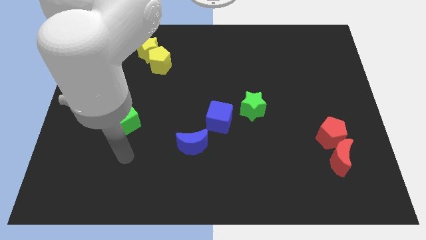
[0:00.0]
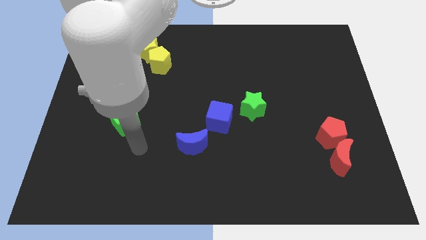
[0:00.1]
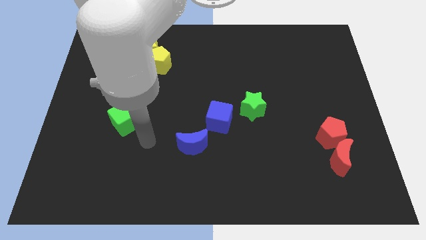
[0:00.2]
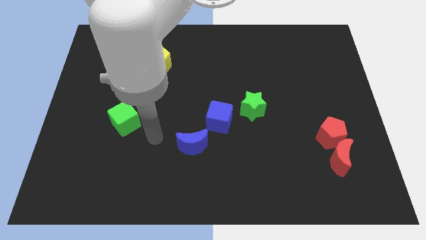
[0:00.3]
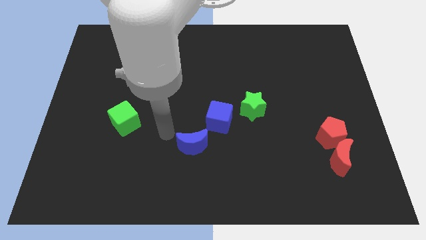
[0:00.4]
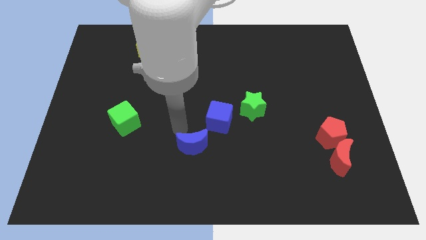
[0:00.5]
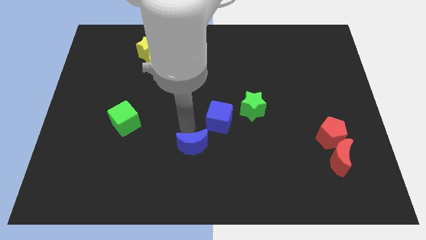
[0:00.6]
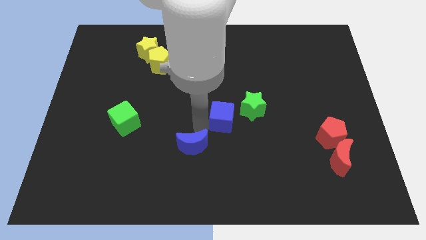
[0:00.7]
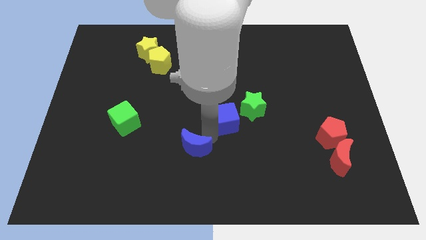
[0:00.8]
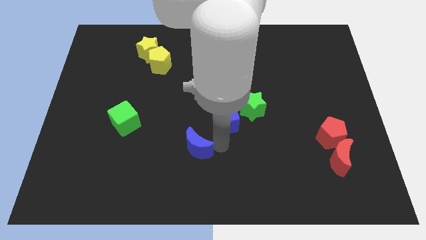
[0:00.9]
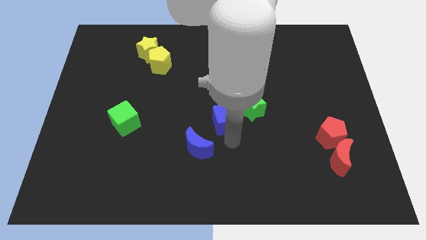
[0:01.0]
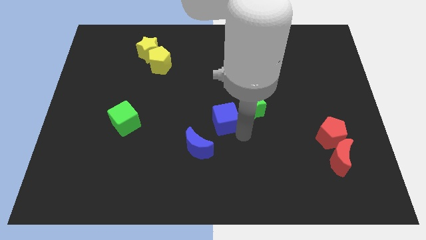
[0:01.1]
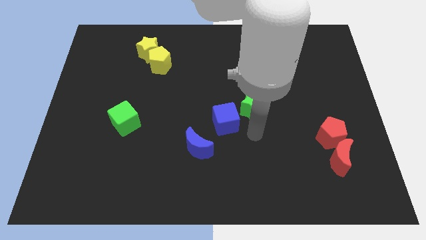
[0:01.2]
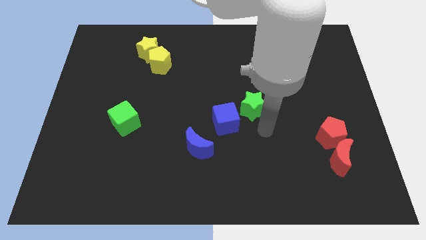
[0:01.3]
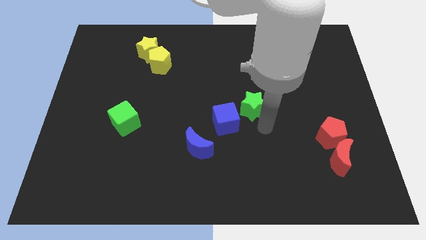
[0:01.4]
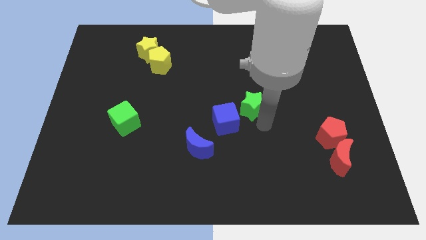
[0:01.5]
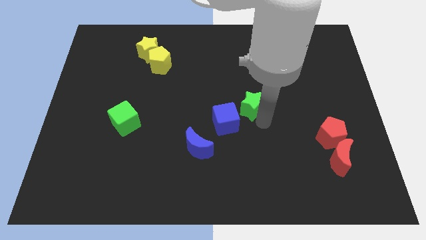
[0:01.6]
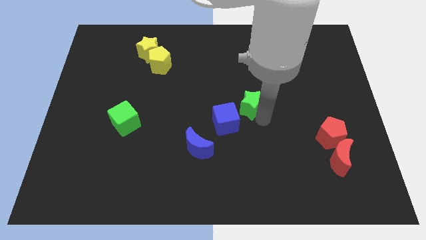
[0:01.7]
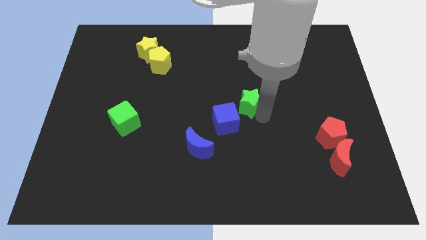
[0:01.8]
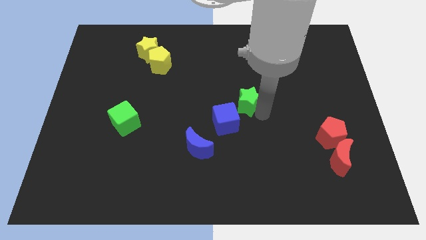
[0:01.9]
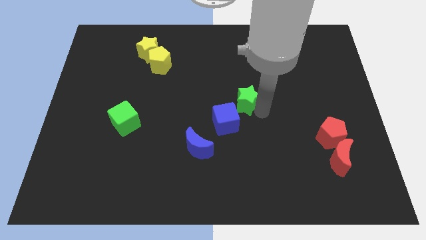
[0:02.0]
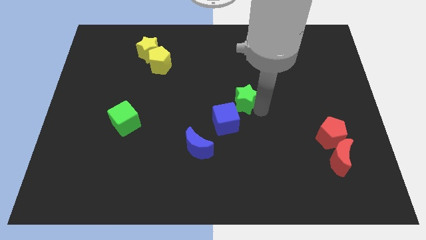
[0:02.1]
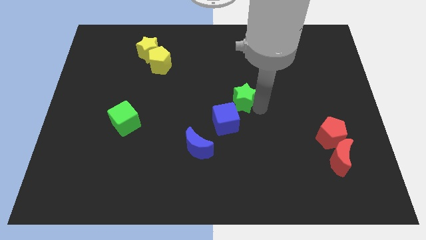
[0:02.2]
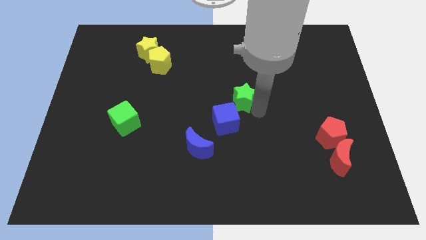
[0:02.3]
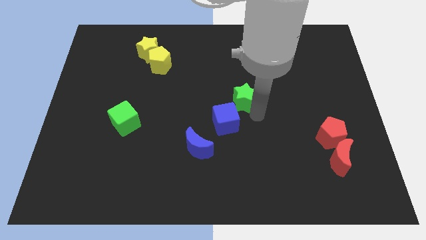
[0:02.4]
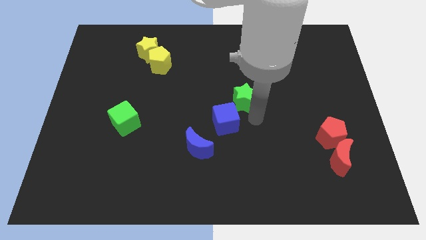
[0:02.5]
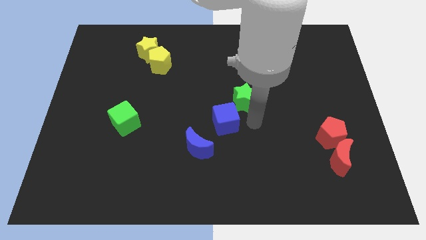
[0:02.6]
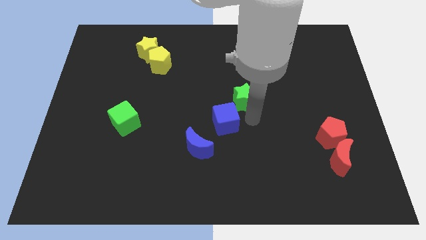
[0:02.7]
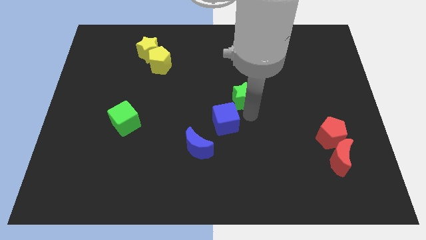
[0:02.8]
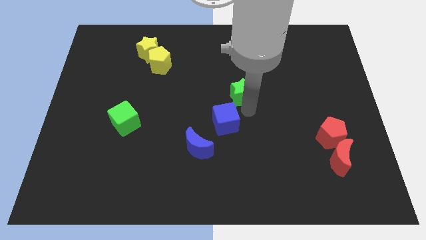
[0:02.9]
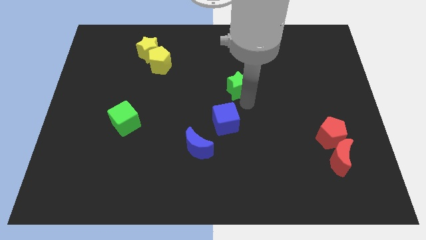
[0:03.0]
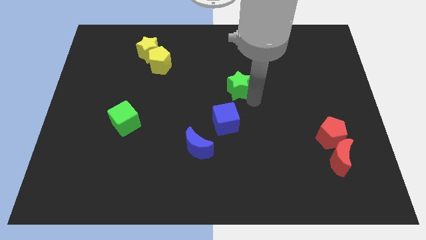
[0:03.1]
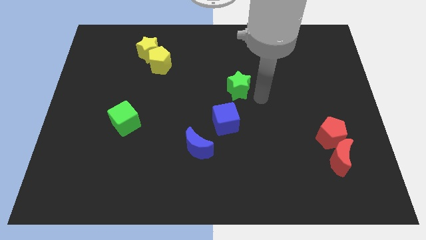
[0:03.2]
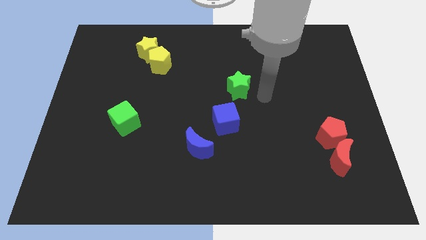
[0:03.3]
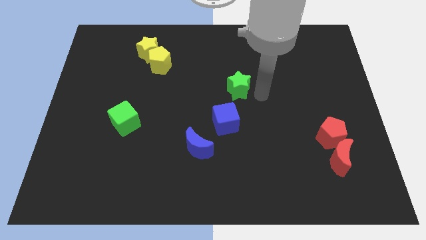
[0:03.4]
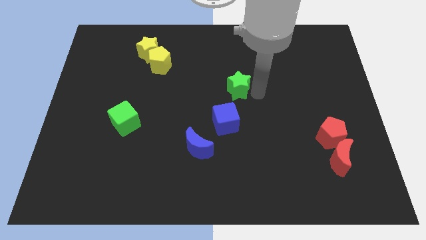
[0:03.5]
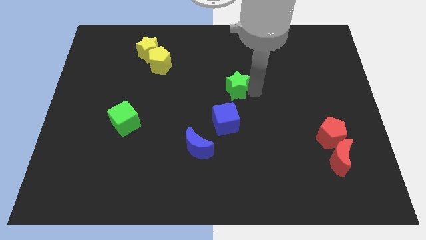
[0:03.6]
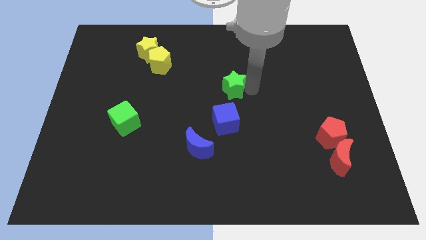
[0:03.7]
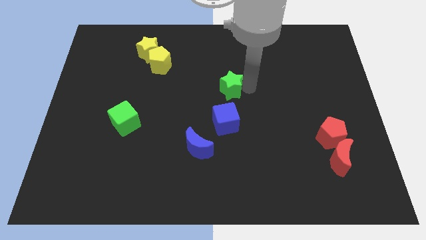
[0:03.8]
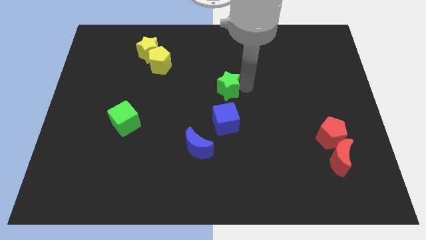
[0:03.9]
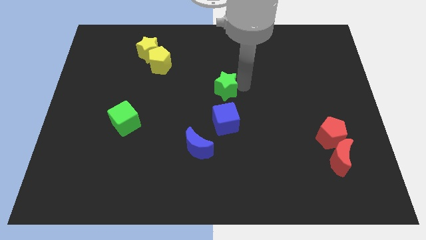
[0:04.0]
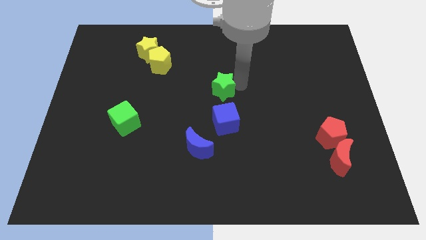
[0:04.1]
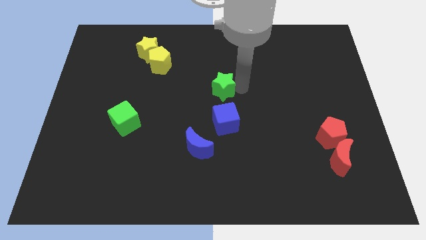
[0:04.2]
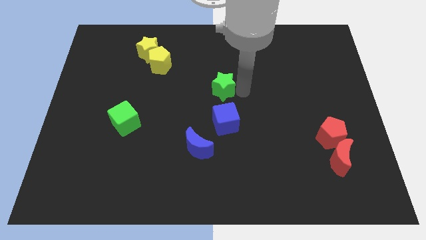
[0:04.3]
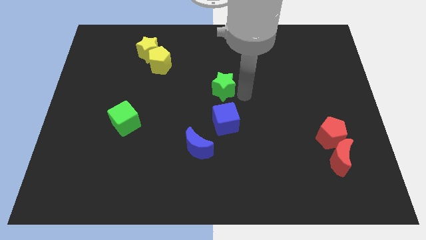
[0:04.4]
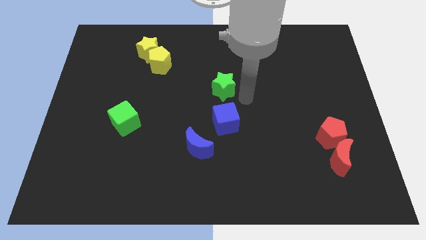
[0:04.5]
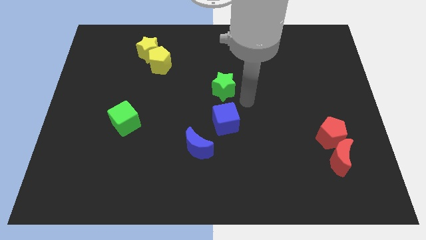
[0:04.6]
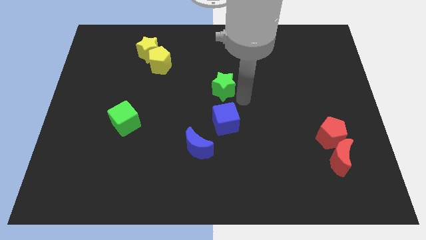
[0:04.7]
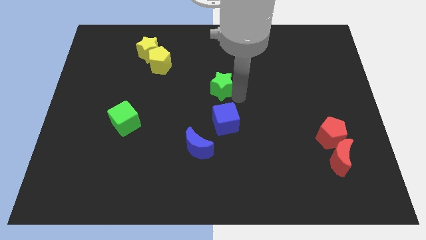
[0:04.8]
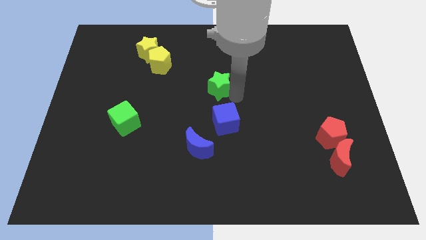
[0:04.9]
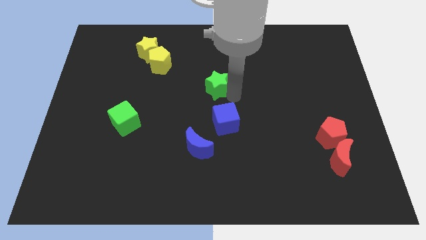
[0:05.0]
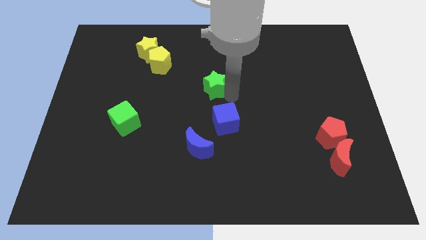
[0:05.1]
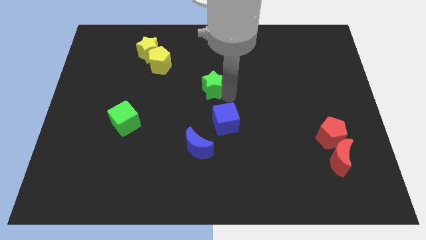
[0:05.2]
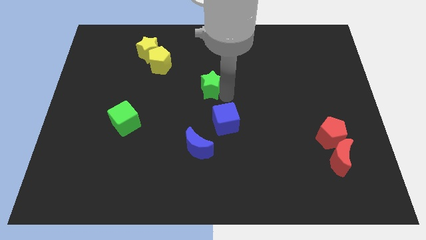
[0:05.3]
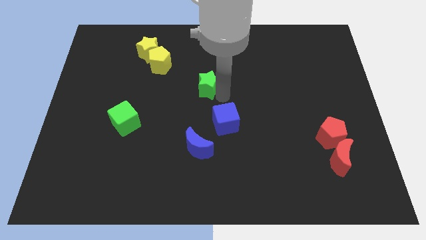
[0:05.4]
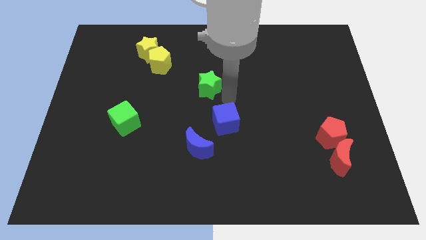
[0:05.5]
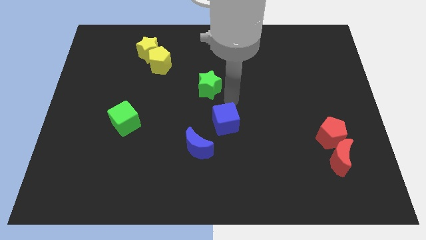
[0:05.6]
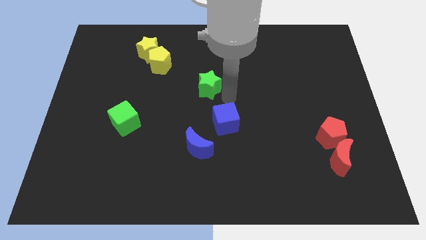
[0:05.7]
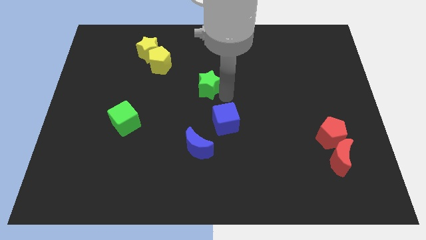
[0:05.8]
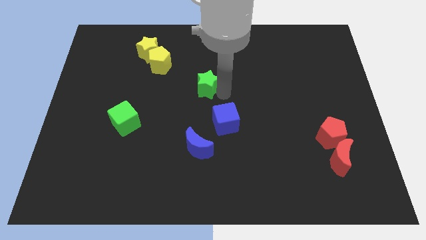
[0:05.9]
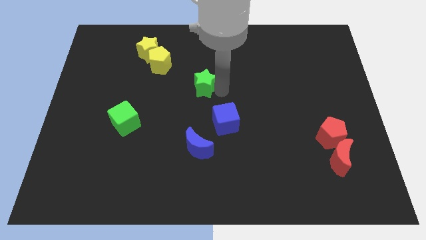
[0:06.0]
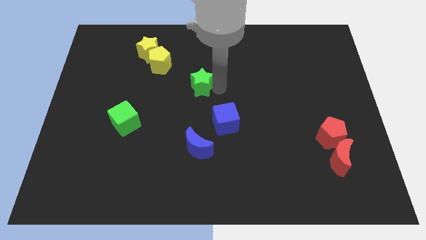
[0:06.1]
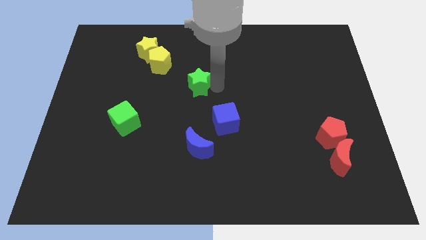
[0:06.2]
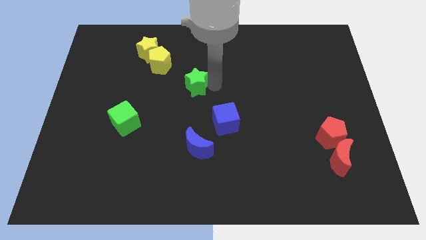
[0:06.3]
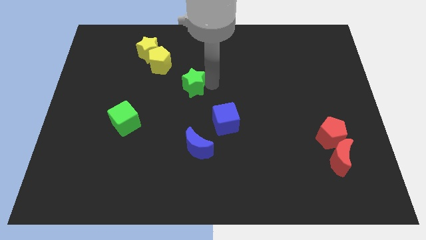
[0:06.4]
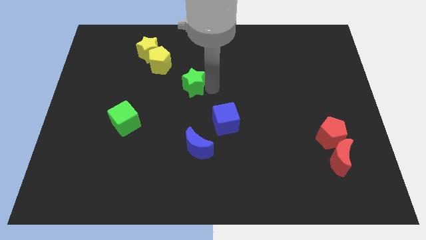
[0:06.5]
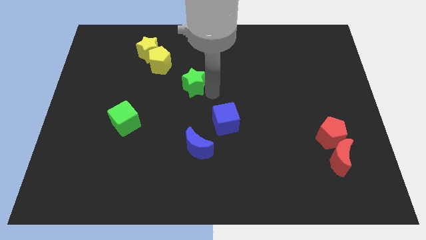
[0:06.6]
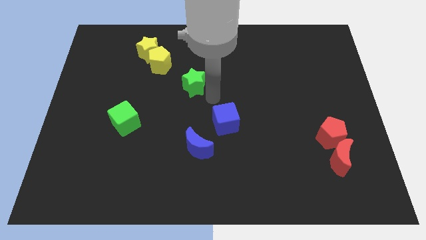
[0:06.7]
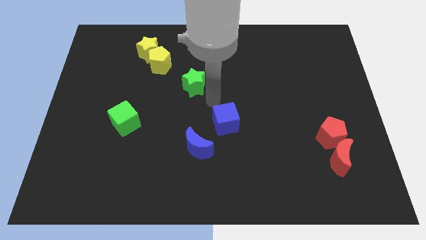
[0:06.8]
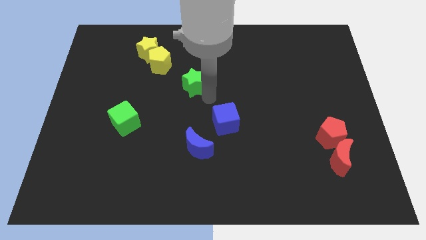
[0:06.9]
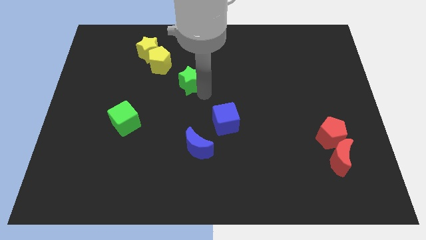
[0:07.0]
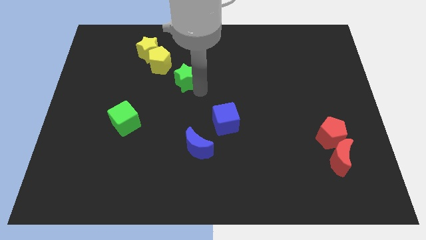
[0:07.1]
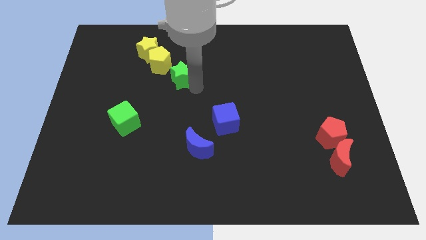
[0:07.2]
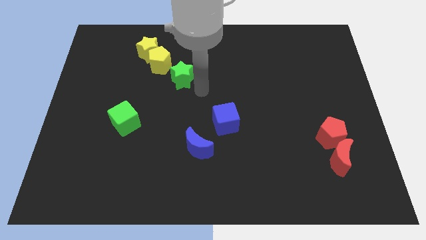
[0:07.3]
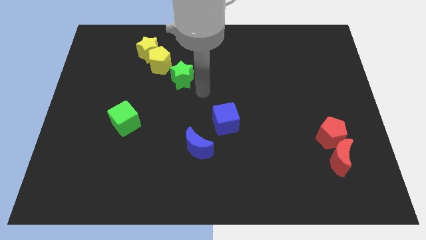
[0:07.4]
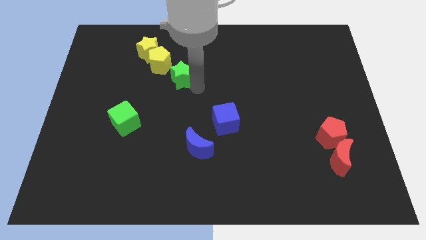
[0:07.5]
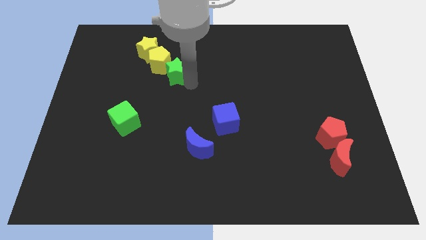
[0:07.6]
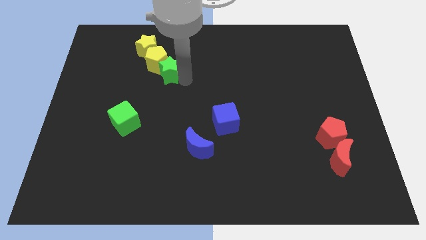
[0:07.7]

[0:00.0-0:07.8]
put the green star towards the yellow pentagon
